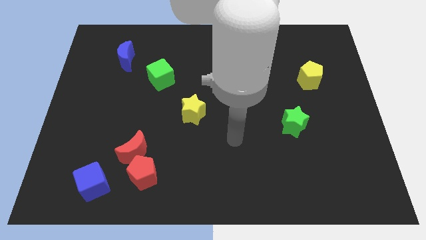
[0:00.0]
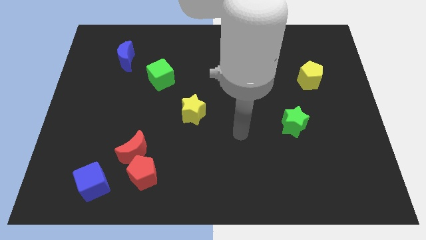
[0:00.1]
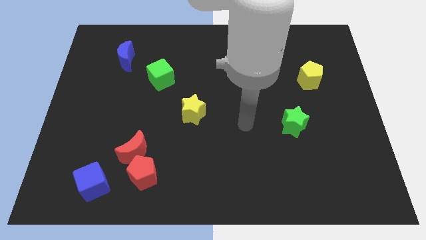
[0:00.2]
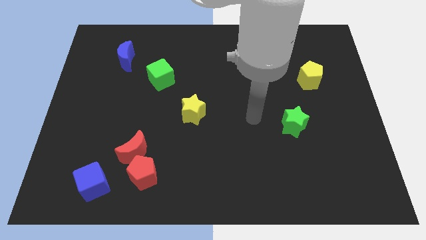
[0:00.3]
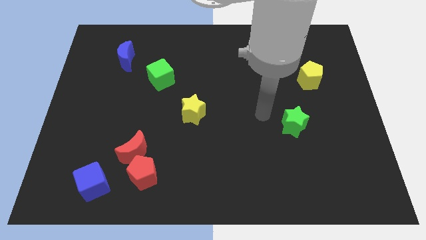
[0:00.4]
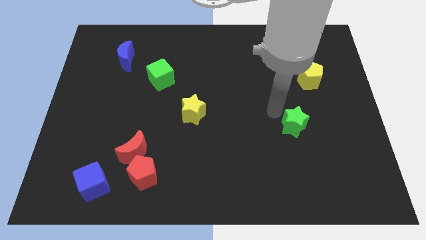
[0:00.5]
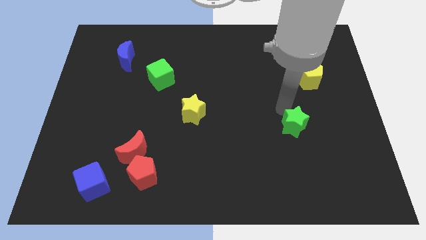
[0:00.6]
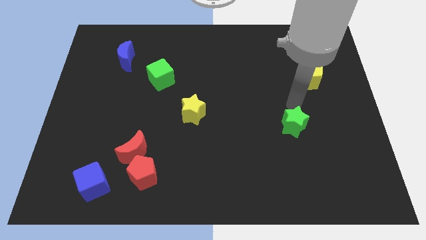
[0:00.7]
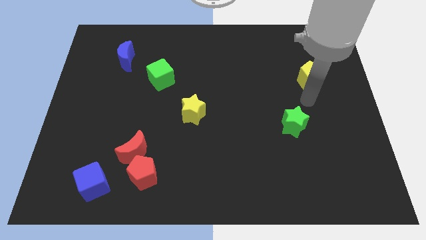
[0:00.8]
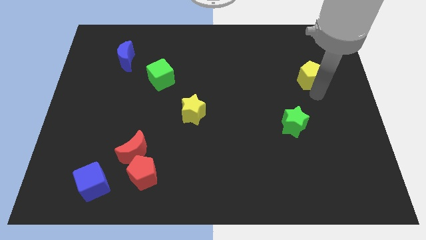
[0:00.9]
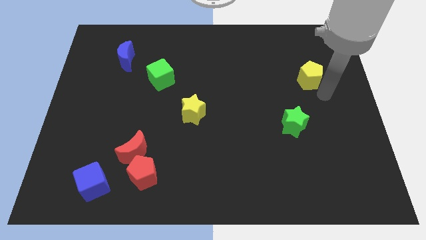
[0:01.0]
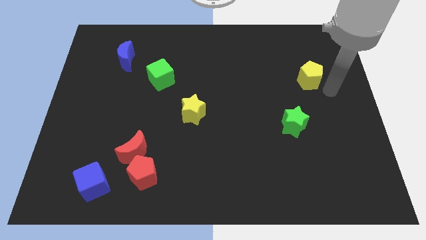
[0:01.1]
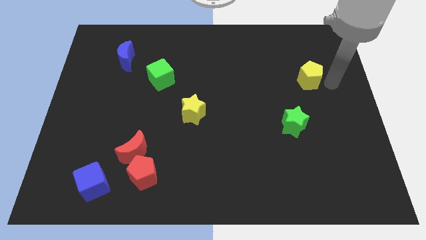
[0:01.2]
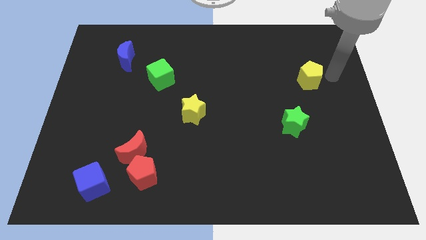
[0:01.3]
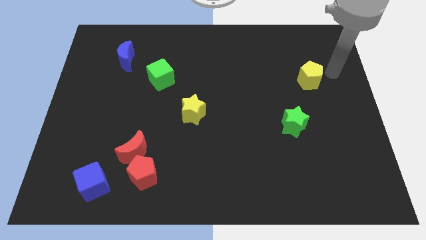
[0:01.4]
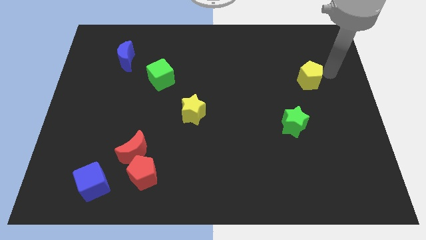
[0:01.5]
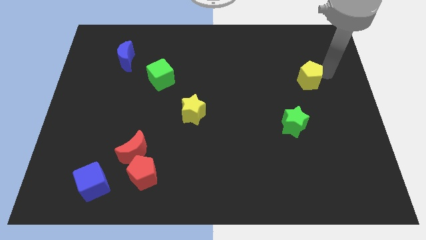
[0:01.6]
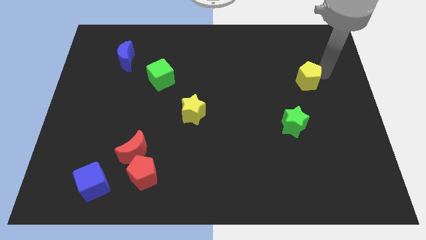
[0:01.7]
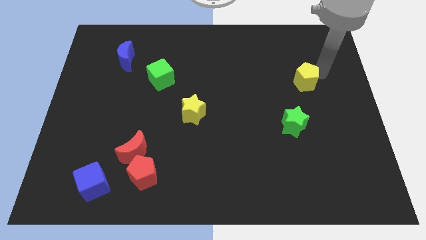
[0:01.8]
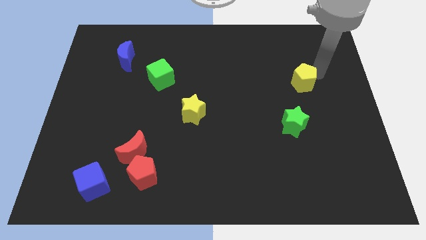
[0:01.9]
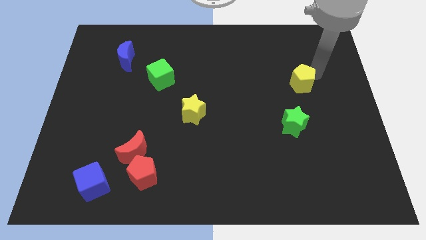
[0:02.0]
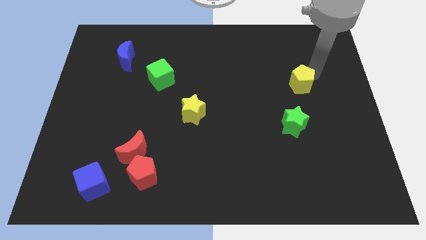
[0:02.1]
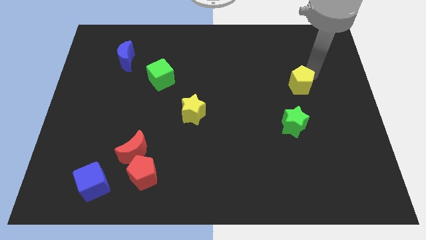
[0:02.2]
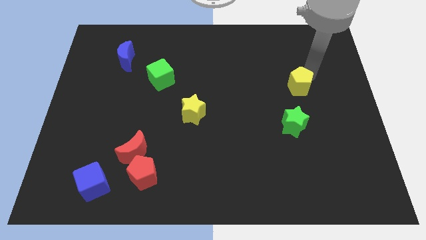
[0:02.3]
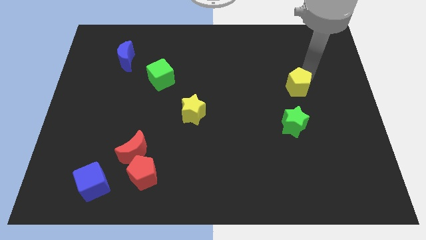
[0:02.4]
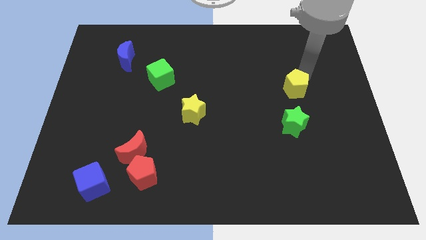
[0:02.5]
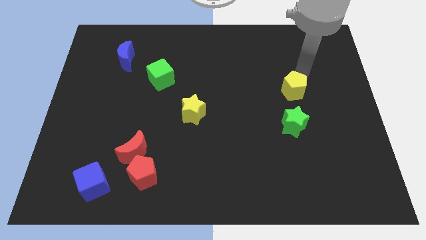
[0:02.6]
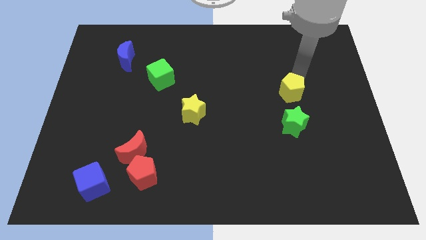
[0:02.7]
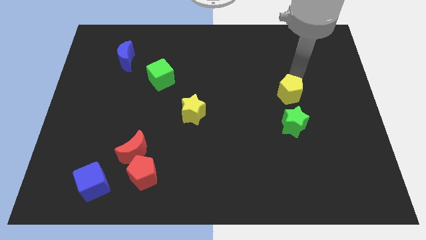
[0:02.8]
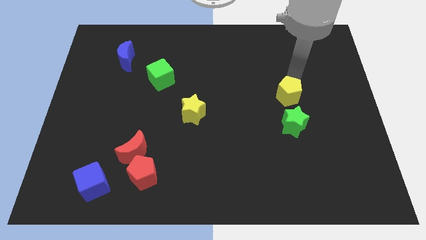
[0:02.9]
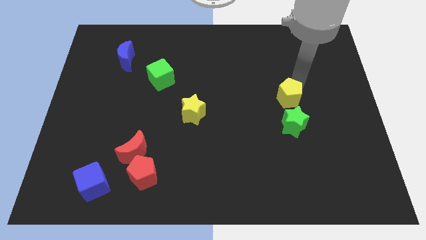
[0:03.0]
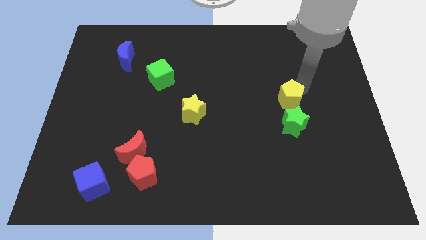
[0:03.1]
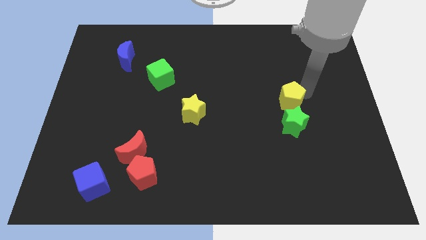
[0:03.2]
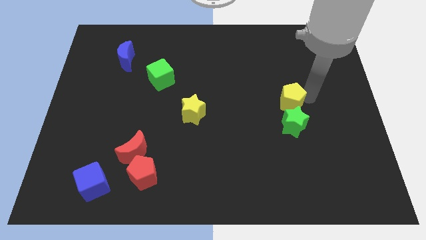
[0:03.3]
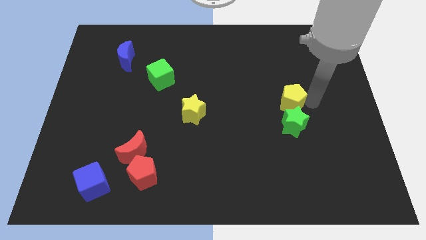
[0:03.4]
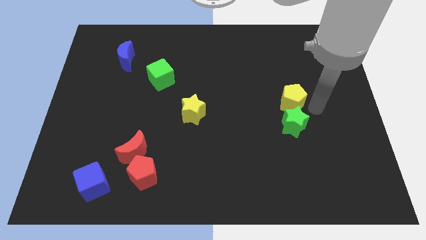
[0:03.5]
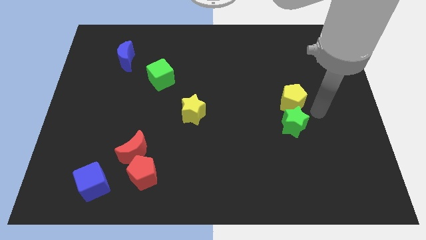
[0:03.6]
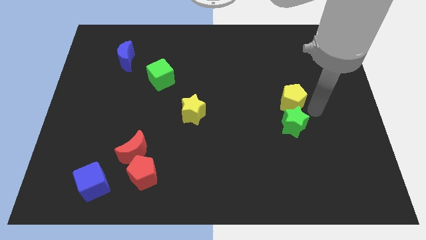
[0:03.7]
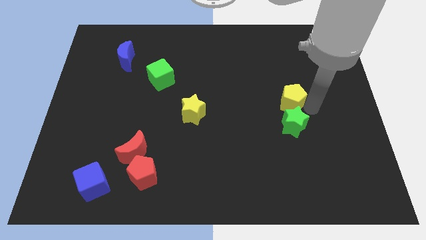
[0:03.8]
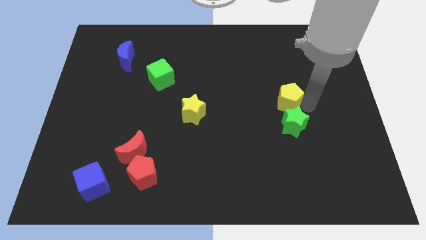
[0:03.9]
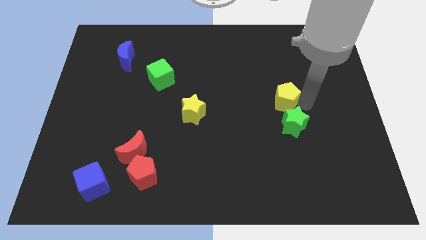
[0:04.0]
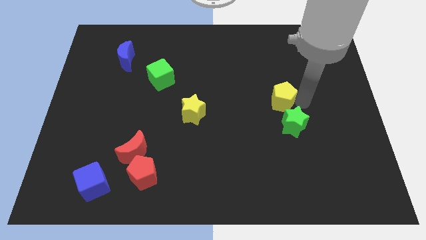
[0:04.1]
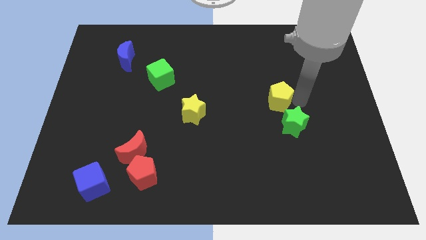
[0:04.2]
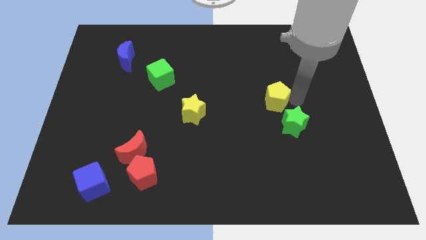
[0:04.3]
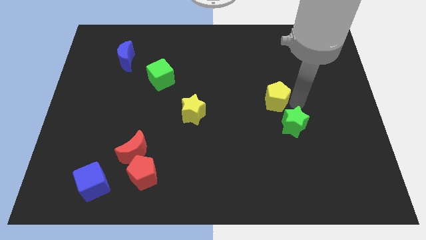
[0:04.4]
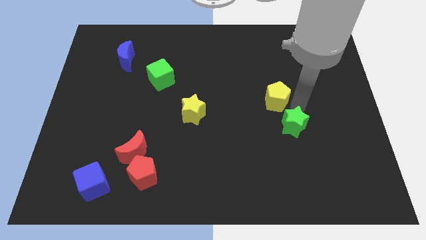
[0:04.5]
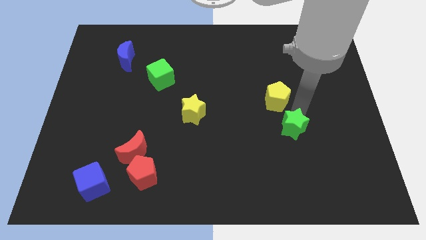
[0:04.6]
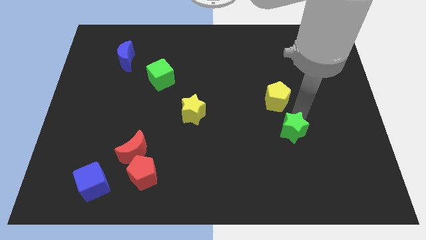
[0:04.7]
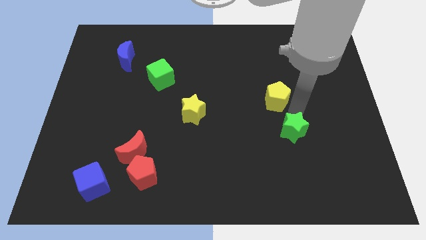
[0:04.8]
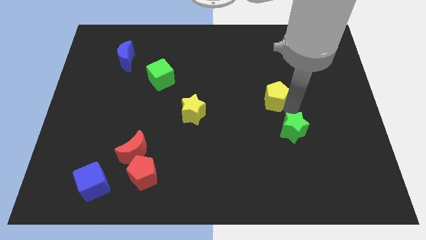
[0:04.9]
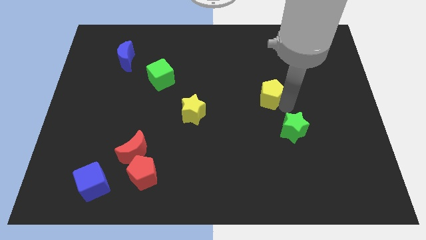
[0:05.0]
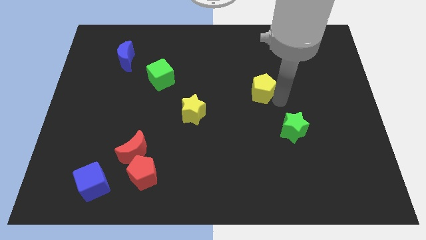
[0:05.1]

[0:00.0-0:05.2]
move the yellow pentagon to the middle of the board

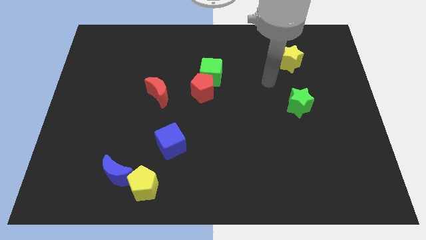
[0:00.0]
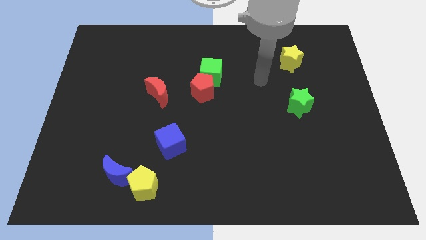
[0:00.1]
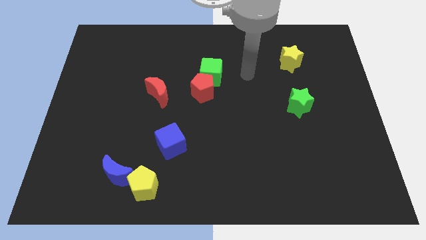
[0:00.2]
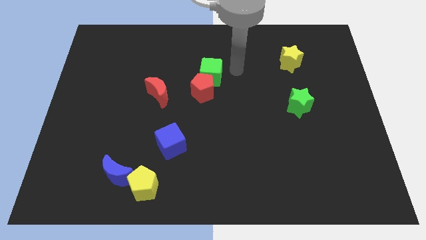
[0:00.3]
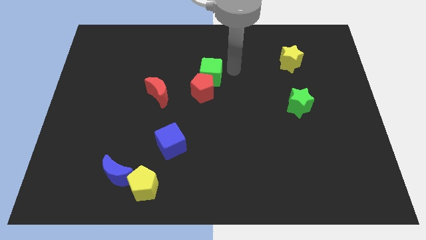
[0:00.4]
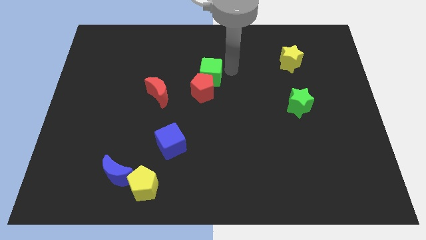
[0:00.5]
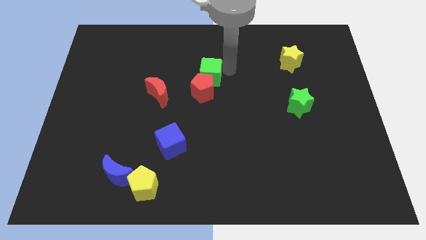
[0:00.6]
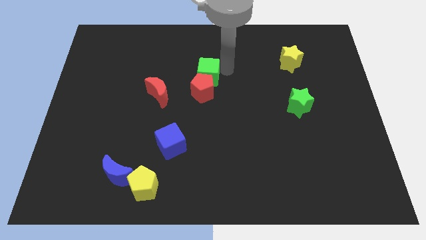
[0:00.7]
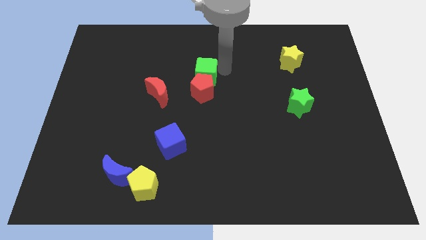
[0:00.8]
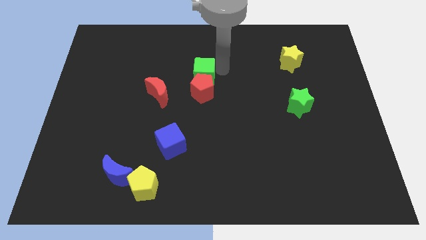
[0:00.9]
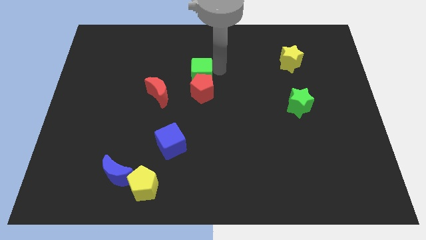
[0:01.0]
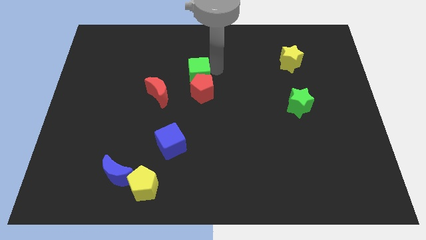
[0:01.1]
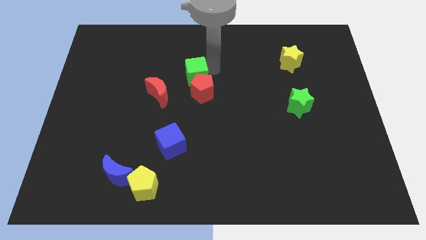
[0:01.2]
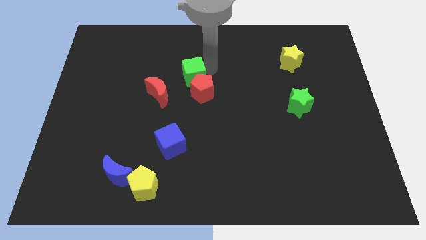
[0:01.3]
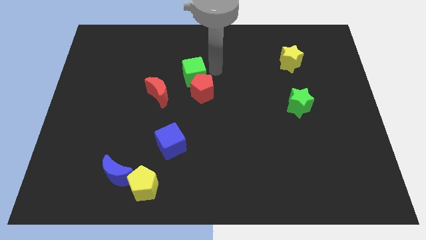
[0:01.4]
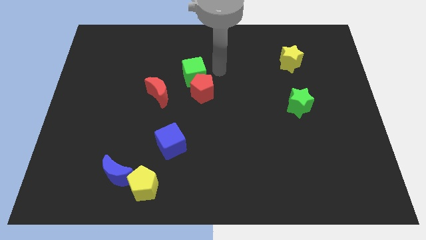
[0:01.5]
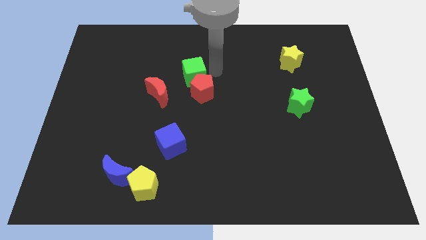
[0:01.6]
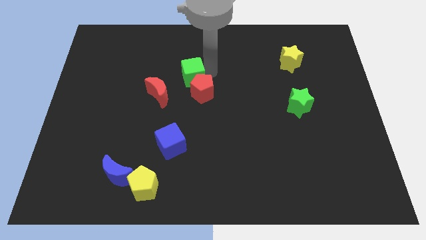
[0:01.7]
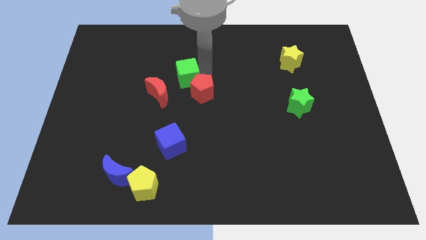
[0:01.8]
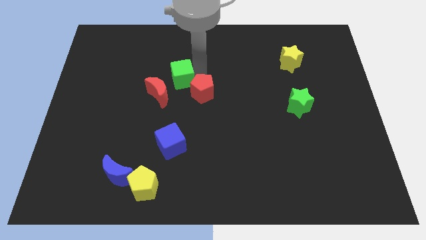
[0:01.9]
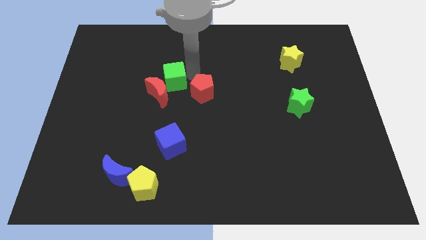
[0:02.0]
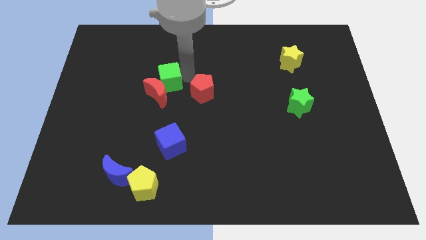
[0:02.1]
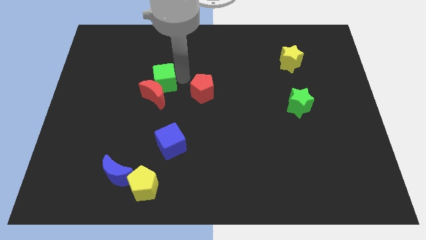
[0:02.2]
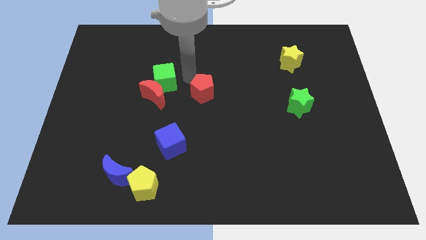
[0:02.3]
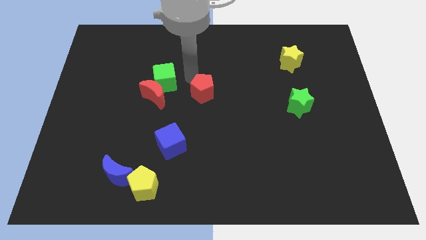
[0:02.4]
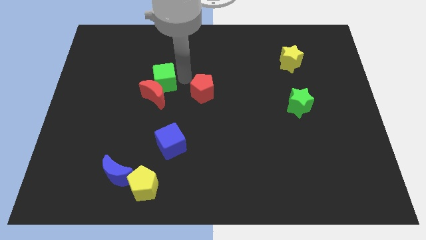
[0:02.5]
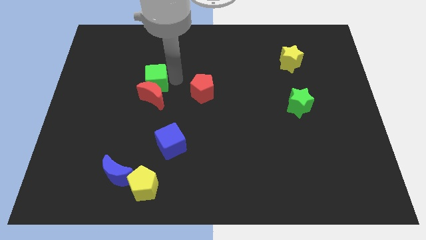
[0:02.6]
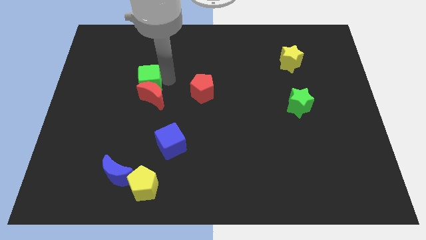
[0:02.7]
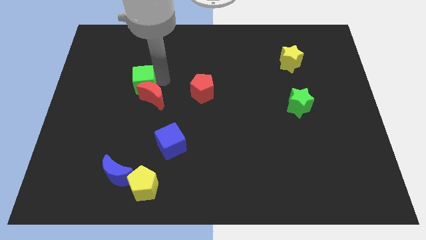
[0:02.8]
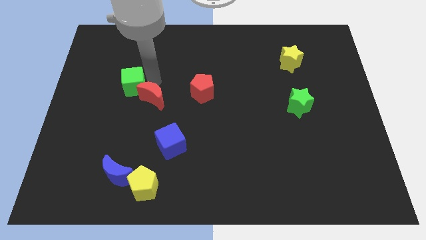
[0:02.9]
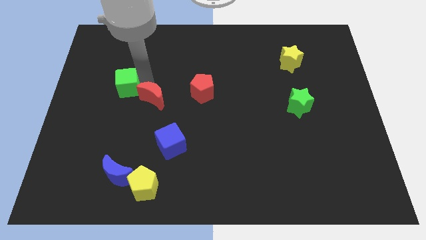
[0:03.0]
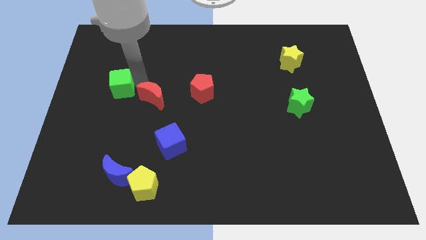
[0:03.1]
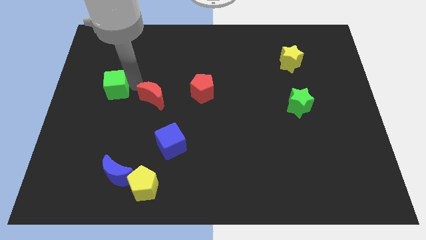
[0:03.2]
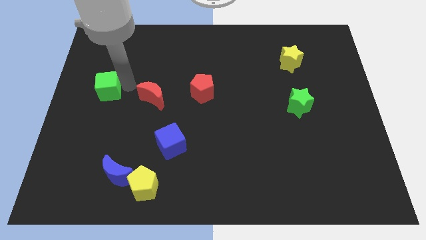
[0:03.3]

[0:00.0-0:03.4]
slide the green cube to the left side of the board
